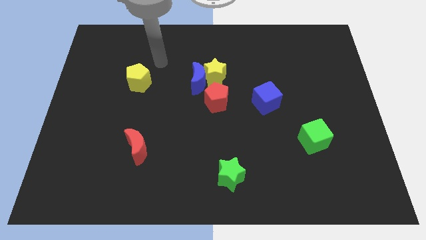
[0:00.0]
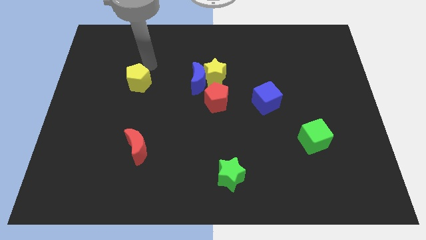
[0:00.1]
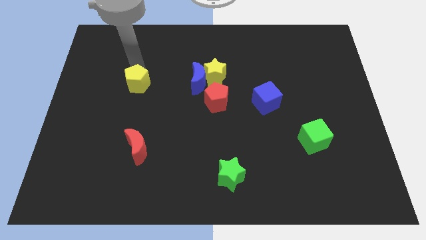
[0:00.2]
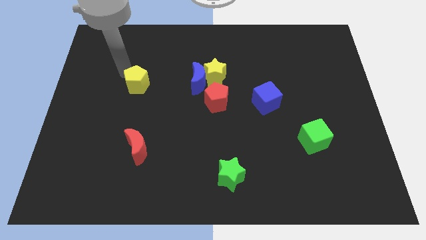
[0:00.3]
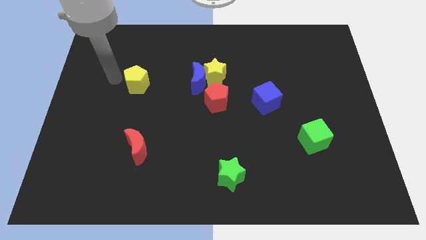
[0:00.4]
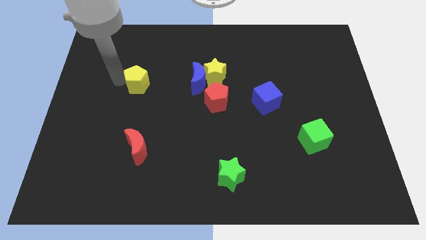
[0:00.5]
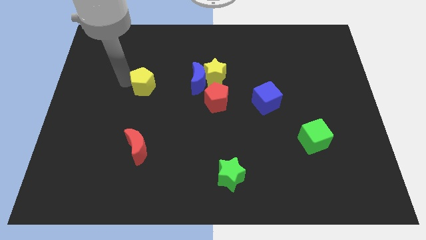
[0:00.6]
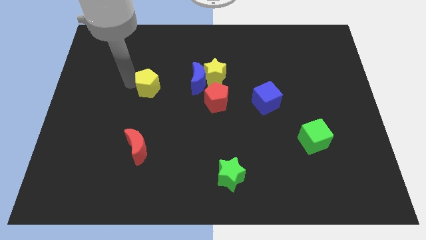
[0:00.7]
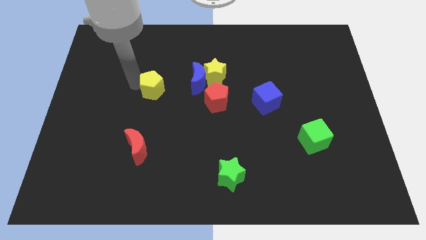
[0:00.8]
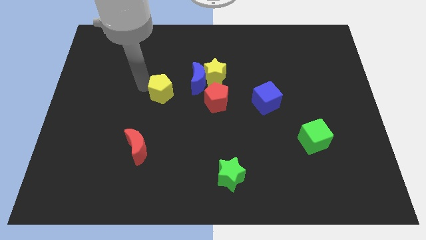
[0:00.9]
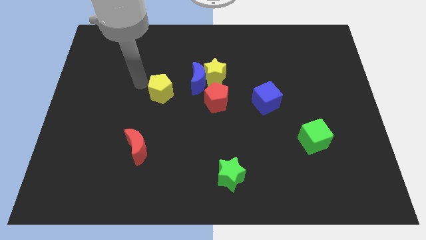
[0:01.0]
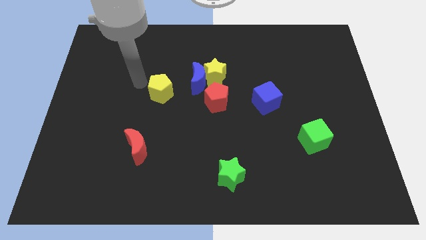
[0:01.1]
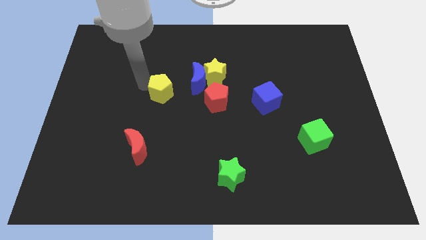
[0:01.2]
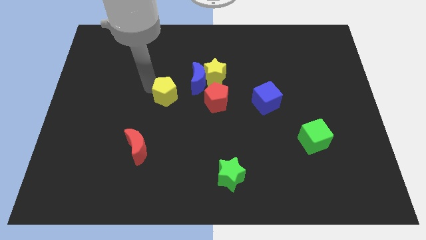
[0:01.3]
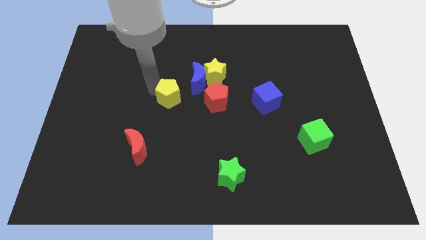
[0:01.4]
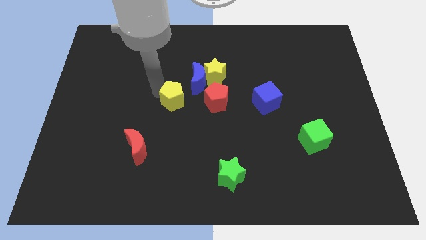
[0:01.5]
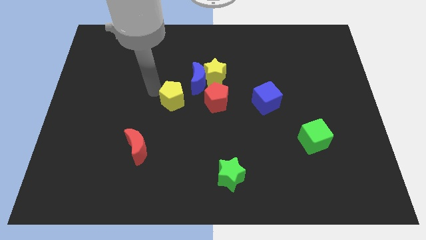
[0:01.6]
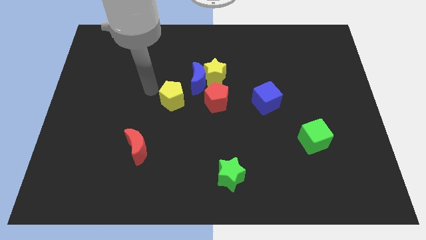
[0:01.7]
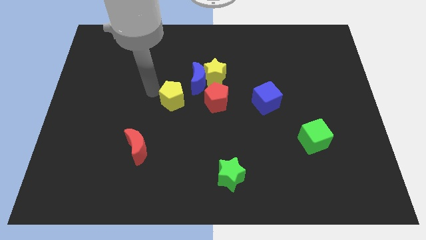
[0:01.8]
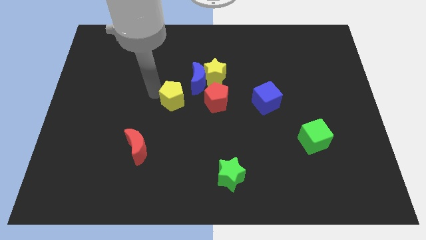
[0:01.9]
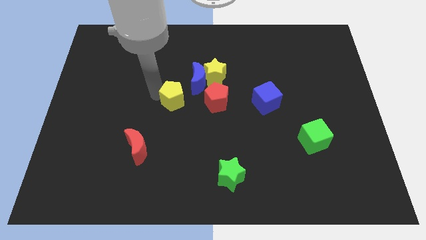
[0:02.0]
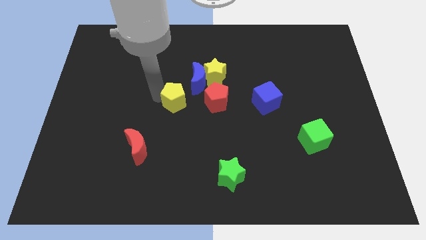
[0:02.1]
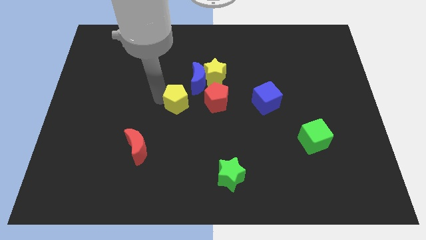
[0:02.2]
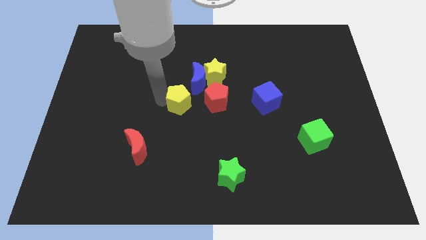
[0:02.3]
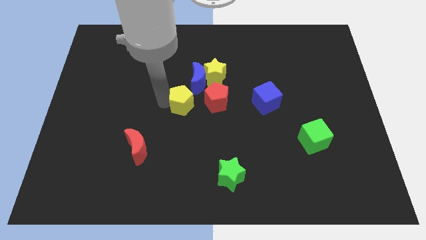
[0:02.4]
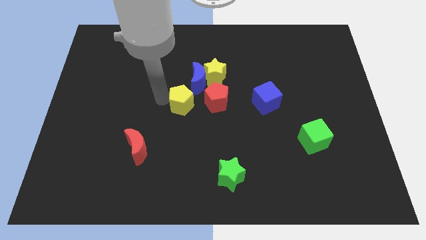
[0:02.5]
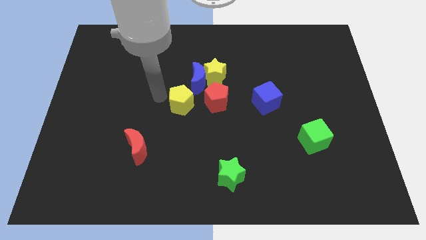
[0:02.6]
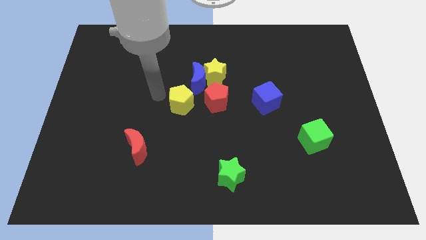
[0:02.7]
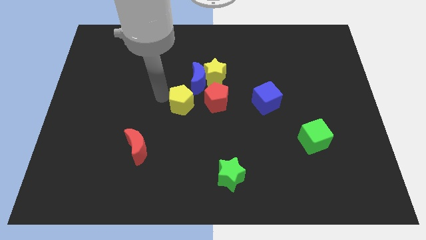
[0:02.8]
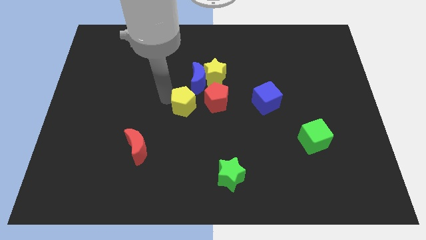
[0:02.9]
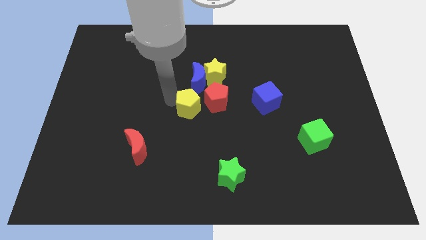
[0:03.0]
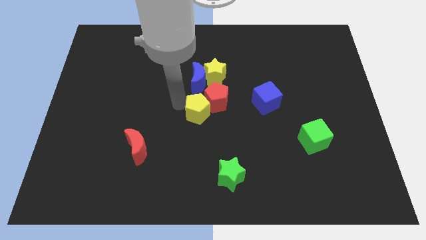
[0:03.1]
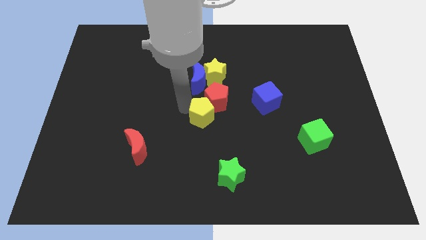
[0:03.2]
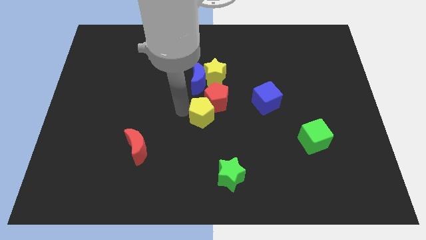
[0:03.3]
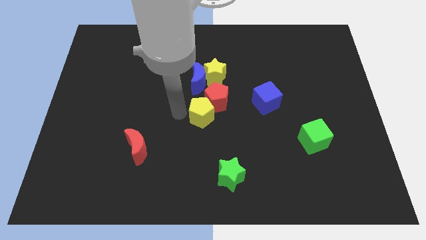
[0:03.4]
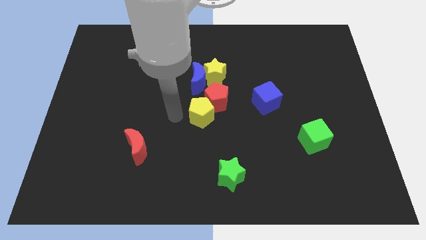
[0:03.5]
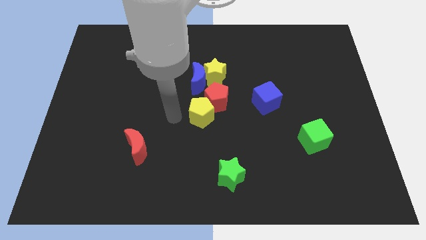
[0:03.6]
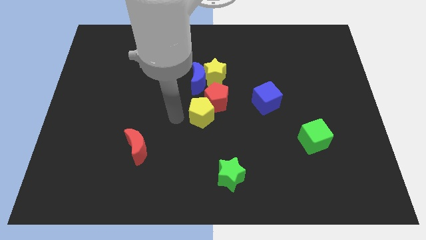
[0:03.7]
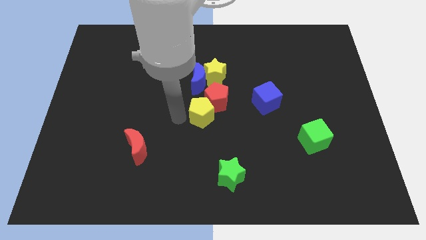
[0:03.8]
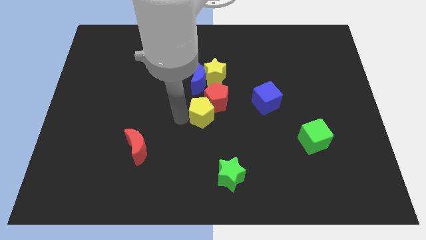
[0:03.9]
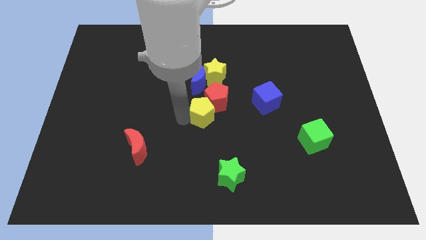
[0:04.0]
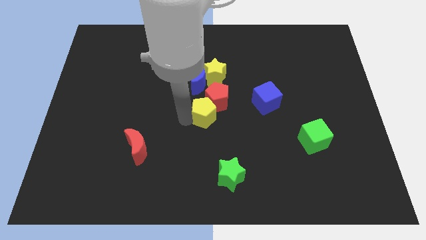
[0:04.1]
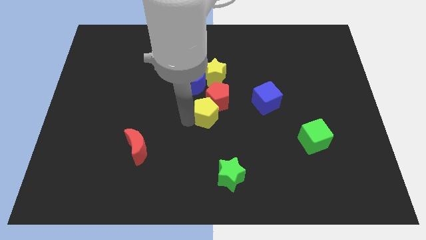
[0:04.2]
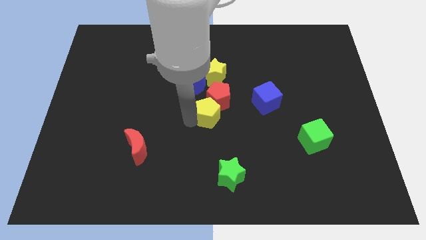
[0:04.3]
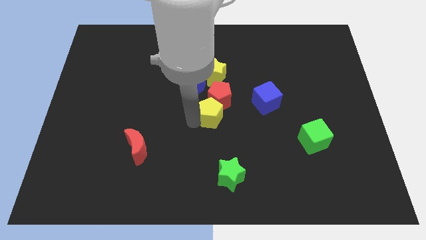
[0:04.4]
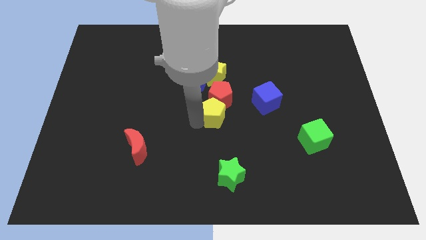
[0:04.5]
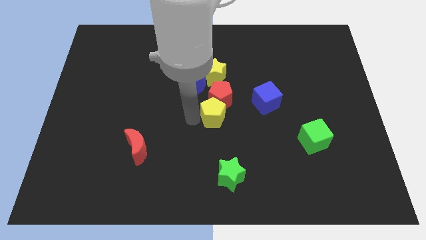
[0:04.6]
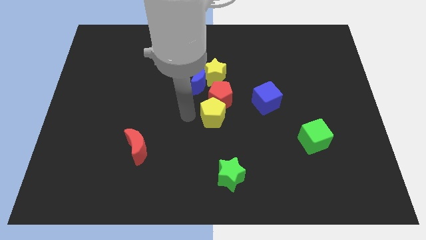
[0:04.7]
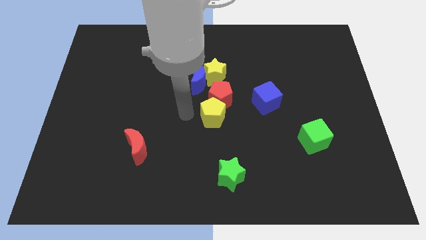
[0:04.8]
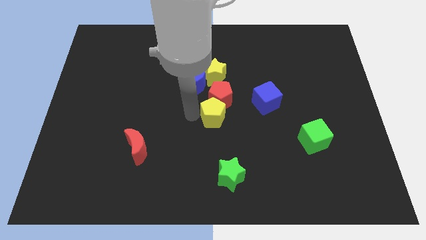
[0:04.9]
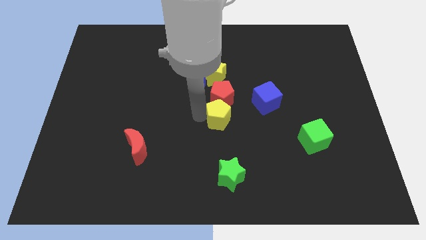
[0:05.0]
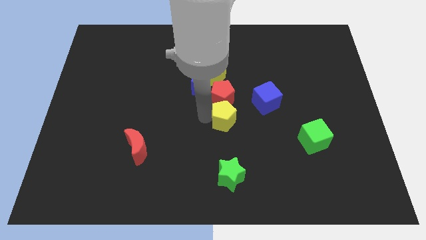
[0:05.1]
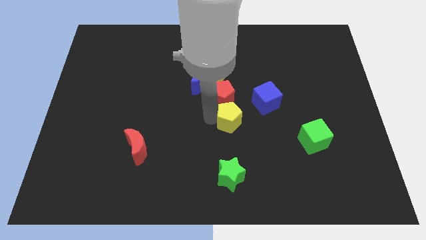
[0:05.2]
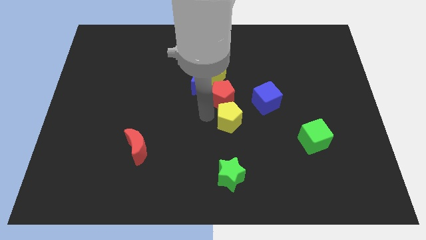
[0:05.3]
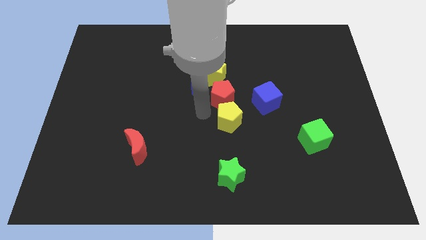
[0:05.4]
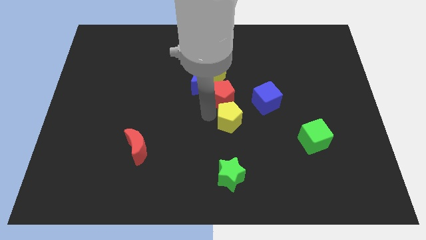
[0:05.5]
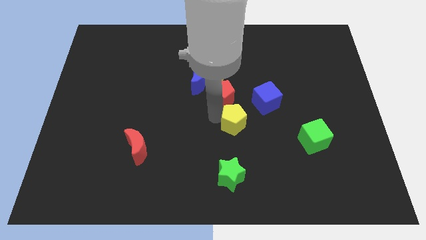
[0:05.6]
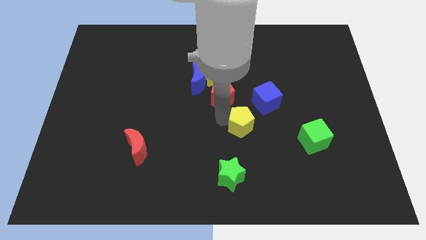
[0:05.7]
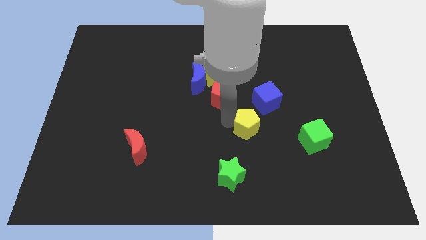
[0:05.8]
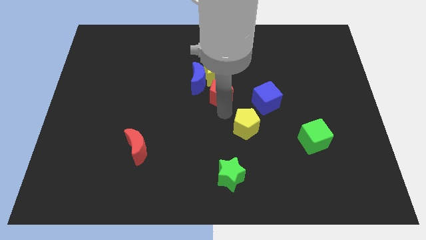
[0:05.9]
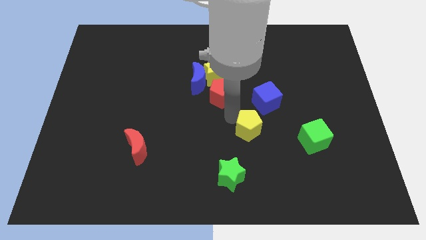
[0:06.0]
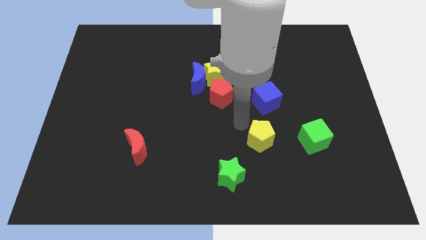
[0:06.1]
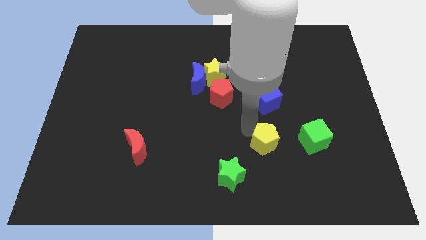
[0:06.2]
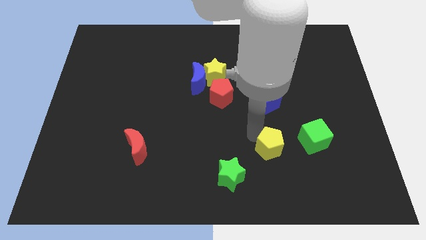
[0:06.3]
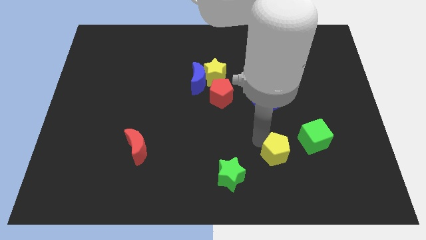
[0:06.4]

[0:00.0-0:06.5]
move the yellow pentagon to the bottom left side of the green cube

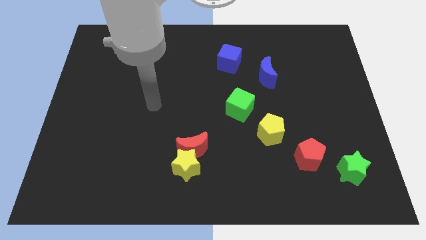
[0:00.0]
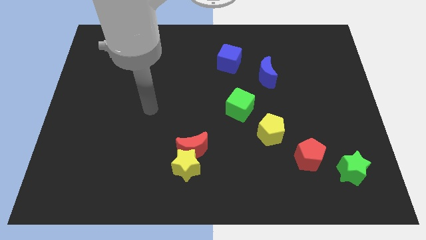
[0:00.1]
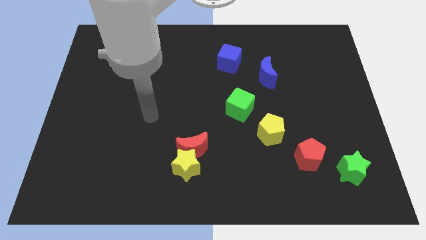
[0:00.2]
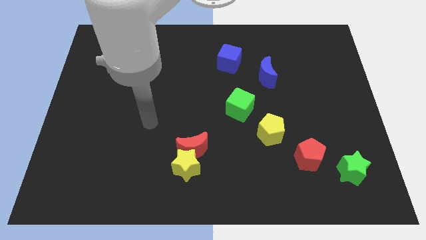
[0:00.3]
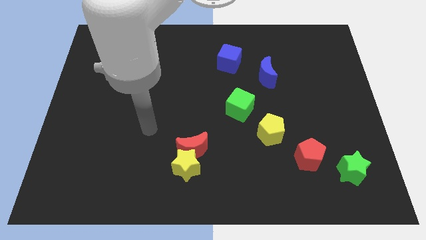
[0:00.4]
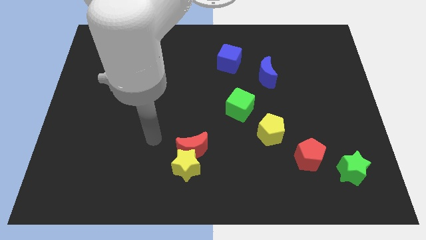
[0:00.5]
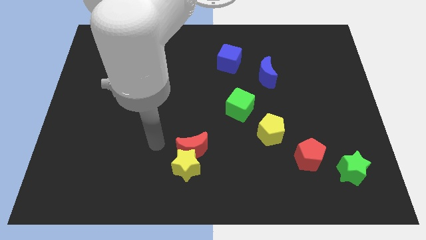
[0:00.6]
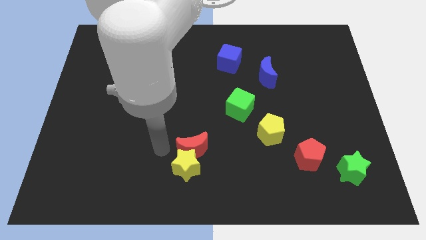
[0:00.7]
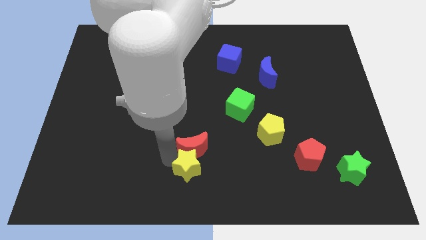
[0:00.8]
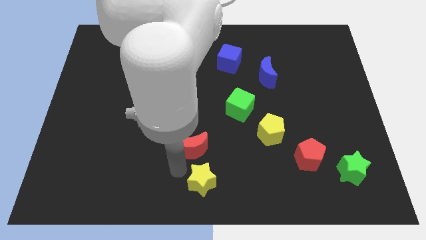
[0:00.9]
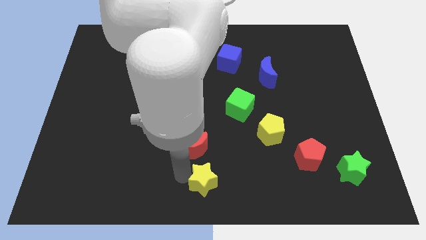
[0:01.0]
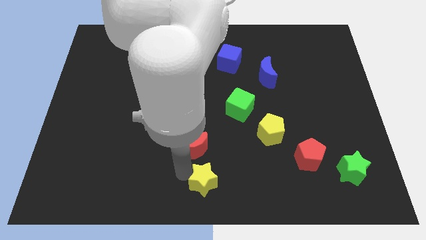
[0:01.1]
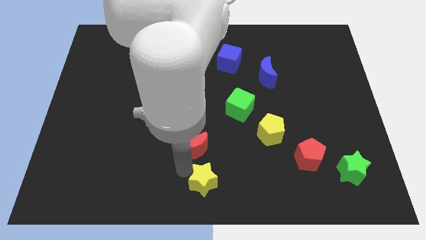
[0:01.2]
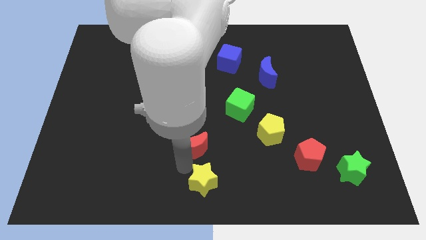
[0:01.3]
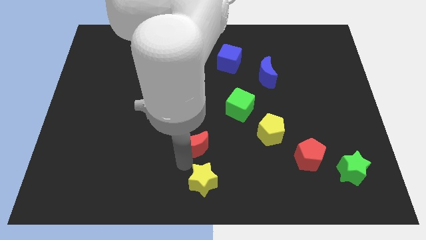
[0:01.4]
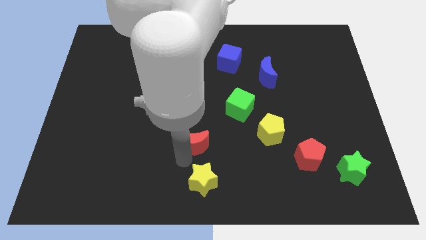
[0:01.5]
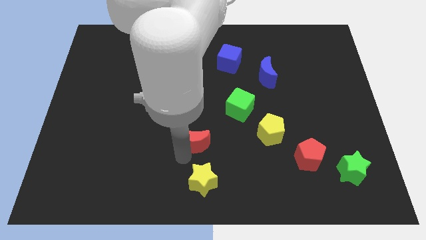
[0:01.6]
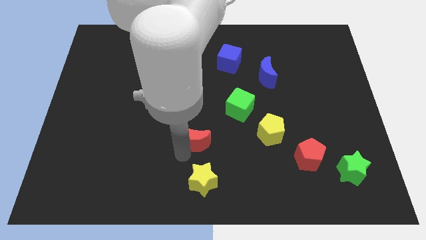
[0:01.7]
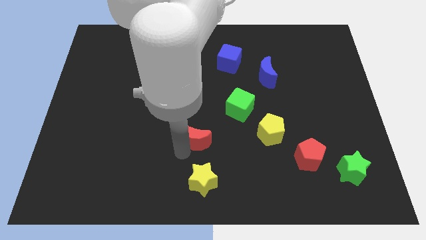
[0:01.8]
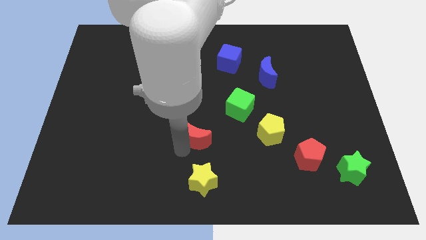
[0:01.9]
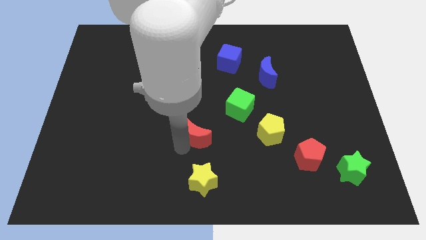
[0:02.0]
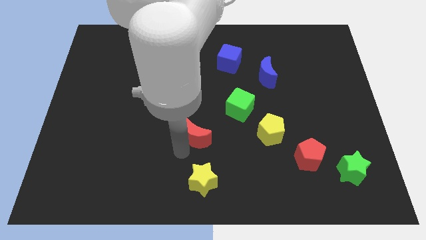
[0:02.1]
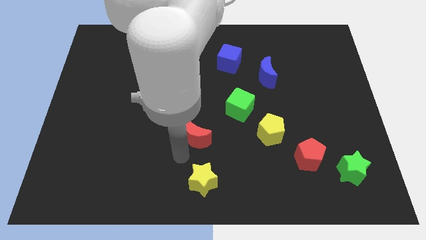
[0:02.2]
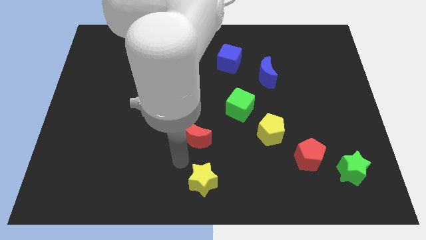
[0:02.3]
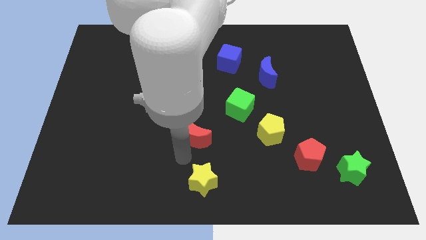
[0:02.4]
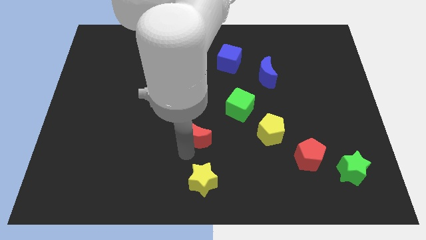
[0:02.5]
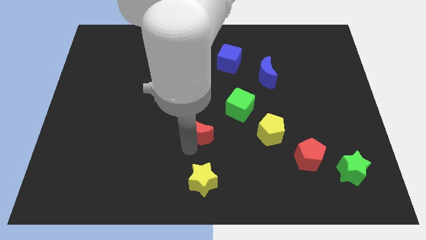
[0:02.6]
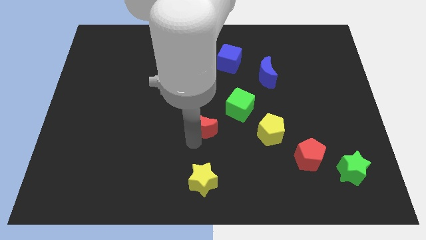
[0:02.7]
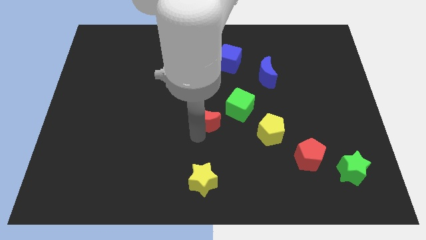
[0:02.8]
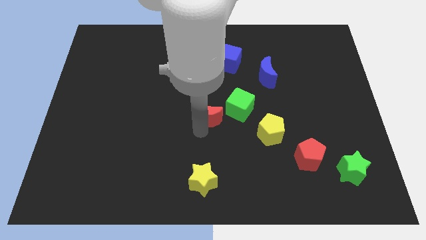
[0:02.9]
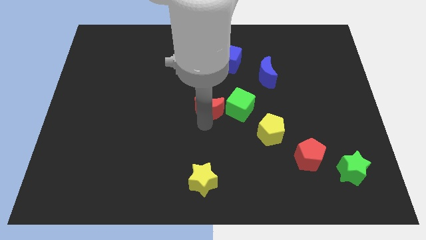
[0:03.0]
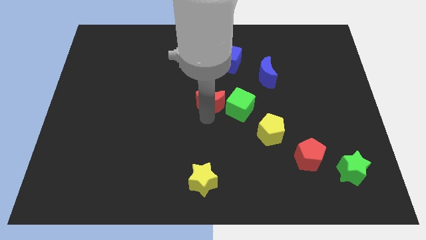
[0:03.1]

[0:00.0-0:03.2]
put the red moon to the top left side of the green cube
